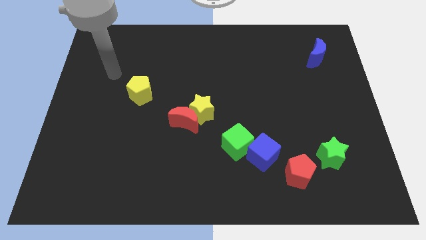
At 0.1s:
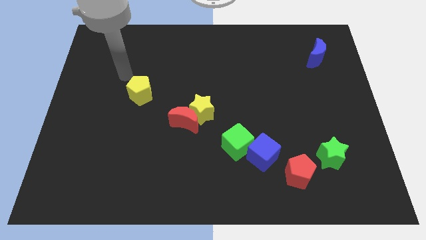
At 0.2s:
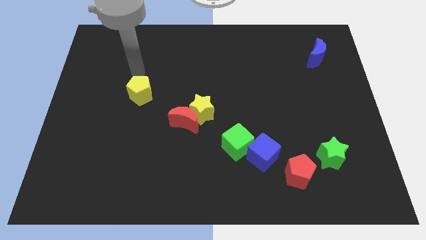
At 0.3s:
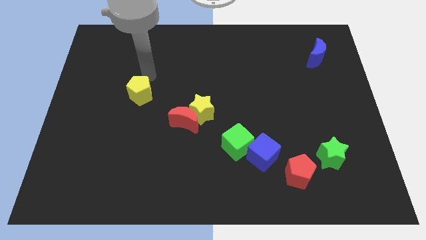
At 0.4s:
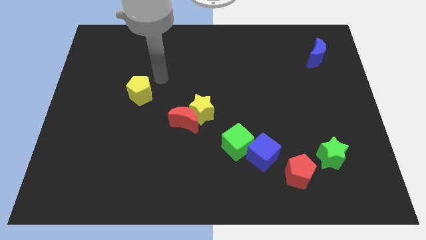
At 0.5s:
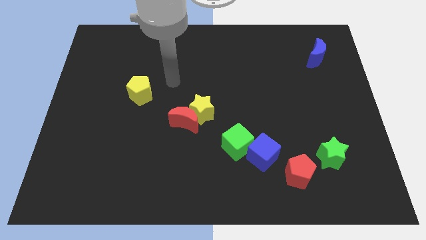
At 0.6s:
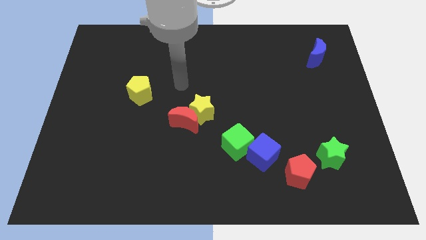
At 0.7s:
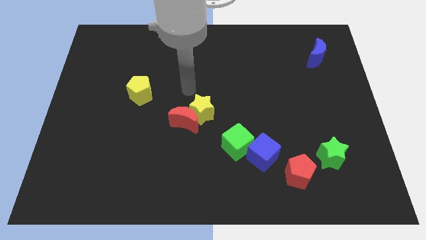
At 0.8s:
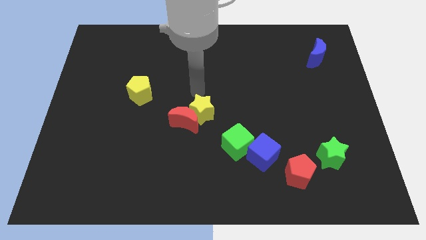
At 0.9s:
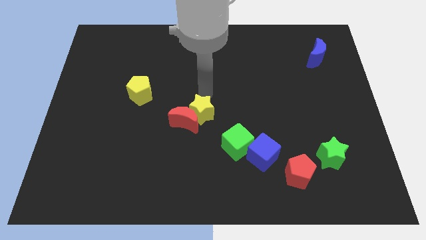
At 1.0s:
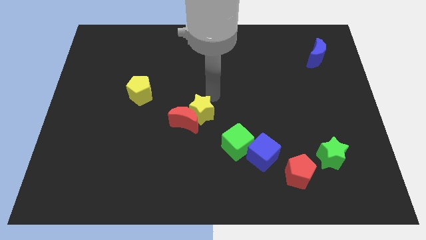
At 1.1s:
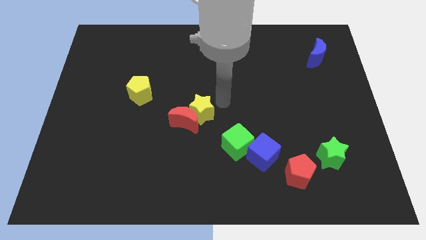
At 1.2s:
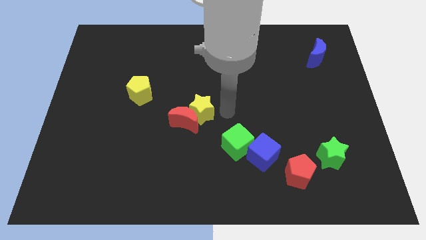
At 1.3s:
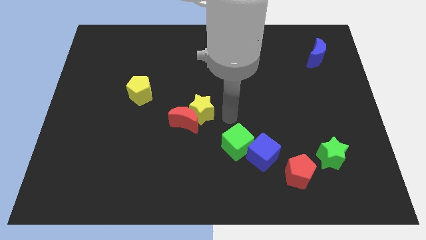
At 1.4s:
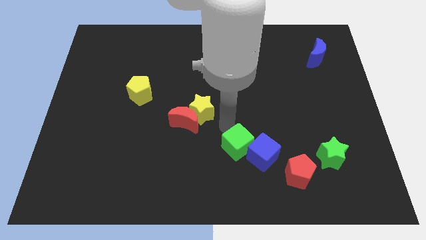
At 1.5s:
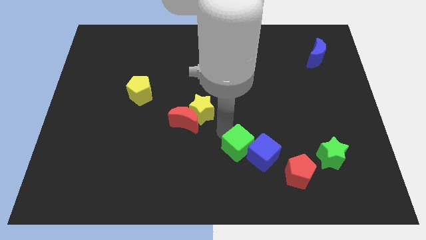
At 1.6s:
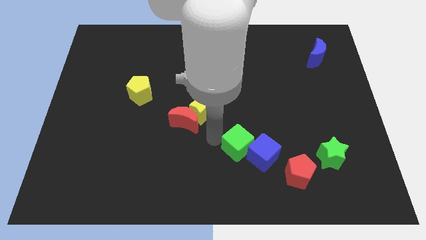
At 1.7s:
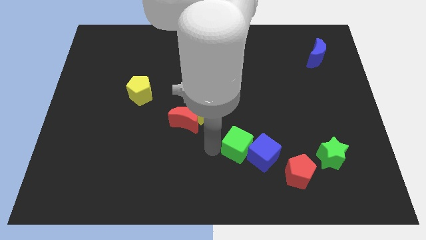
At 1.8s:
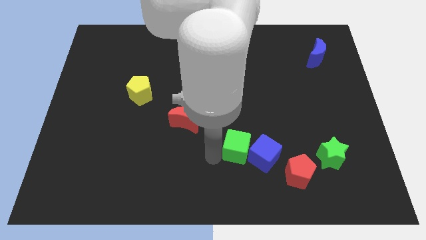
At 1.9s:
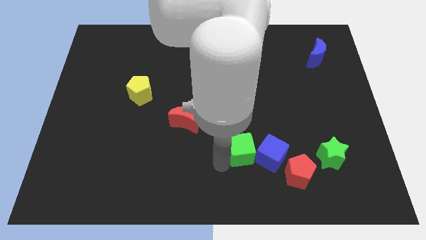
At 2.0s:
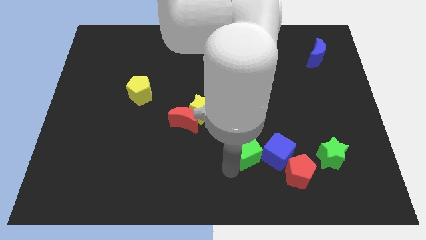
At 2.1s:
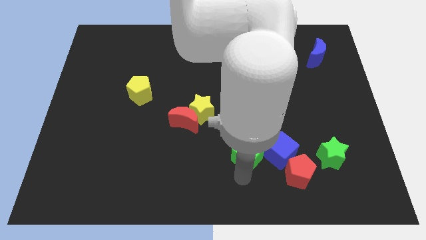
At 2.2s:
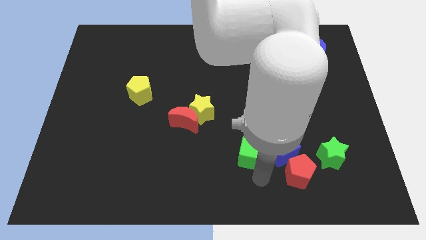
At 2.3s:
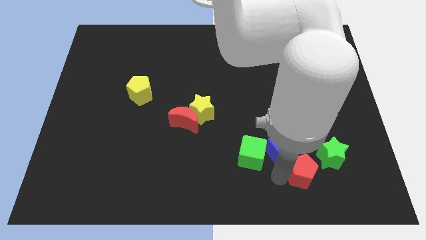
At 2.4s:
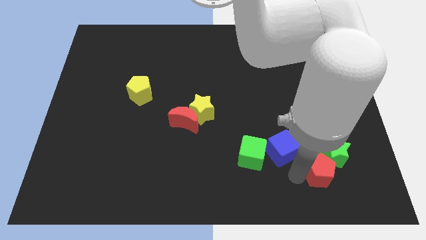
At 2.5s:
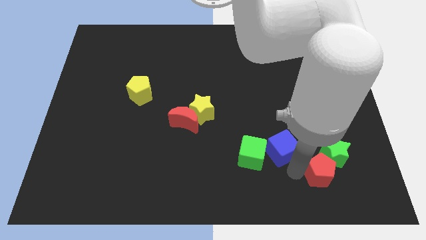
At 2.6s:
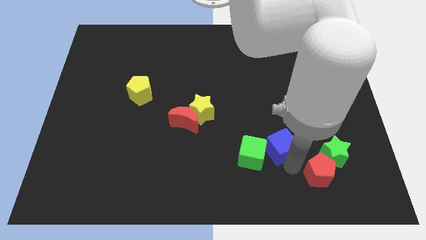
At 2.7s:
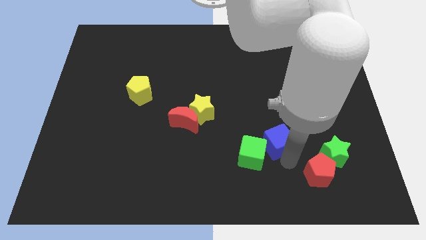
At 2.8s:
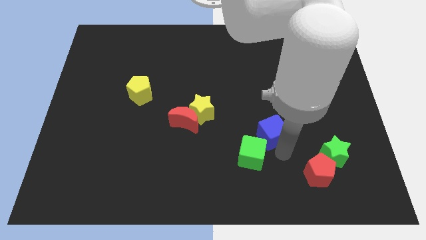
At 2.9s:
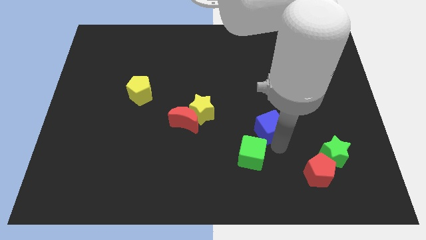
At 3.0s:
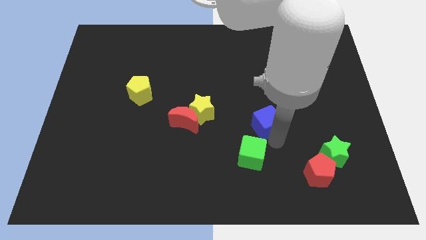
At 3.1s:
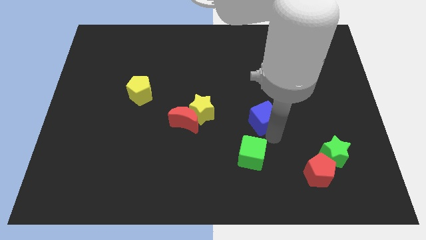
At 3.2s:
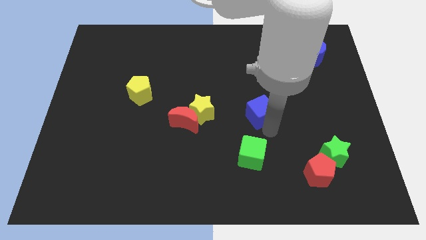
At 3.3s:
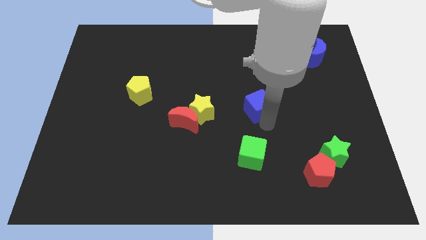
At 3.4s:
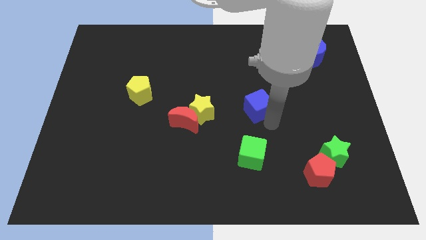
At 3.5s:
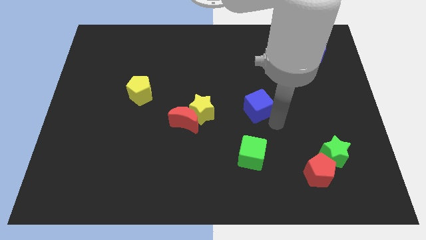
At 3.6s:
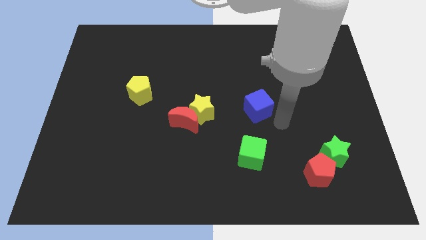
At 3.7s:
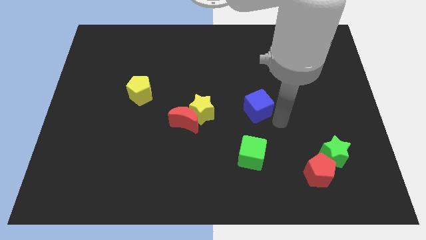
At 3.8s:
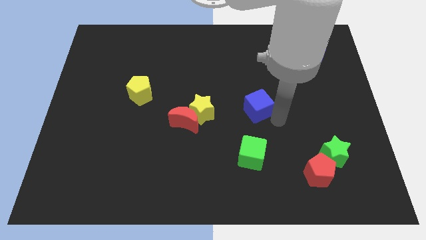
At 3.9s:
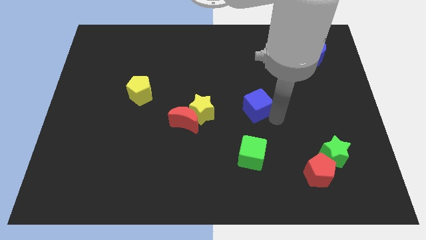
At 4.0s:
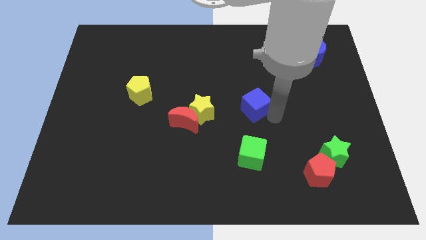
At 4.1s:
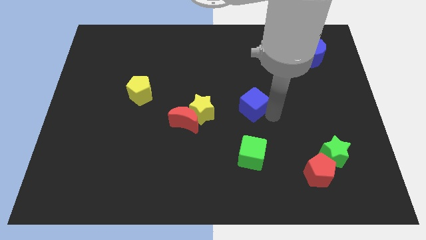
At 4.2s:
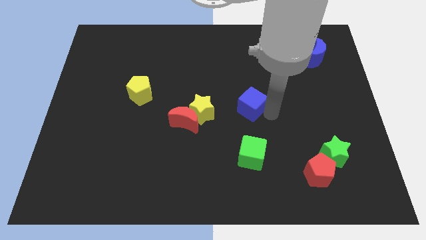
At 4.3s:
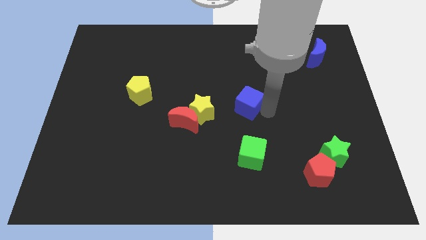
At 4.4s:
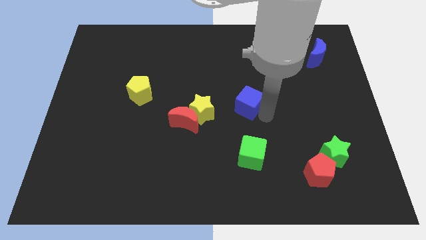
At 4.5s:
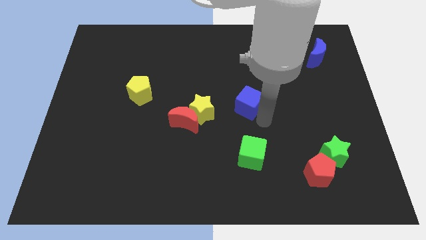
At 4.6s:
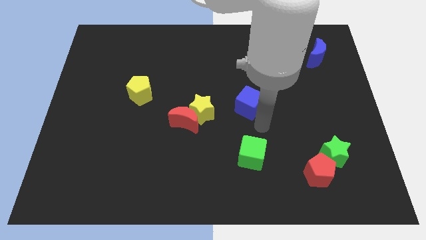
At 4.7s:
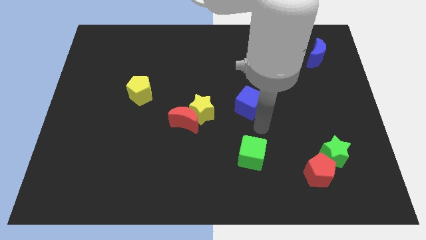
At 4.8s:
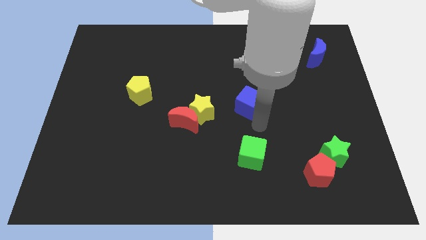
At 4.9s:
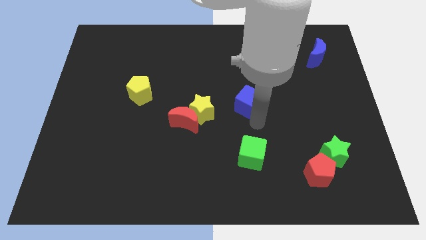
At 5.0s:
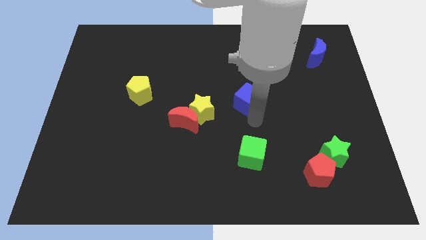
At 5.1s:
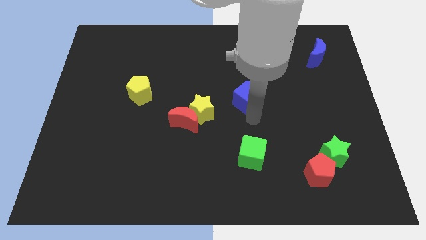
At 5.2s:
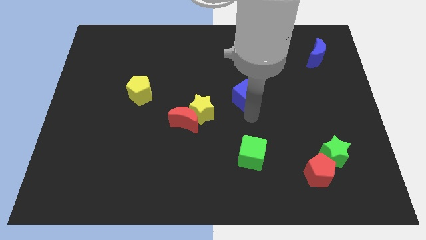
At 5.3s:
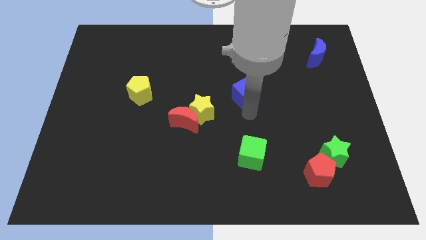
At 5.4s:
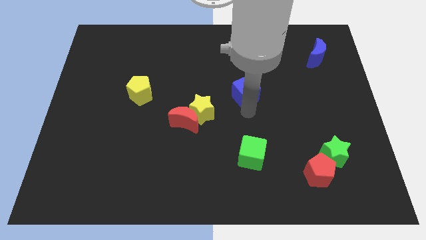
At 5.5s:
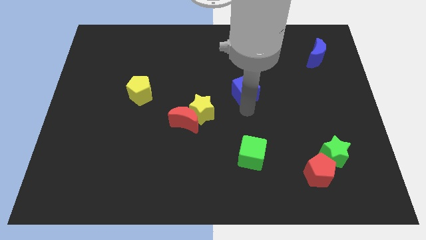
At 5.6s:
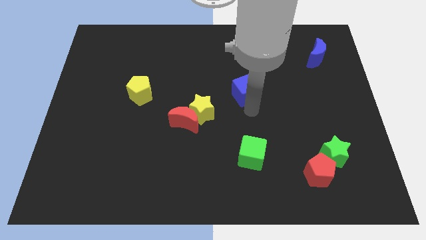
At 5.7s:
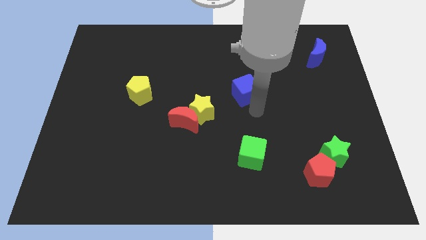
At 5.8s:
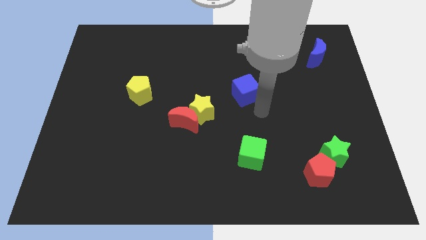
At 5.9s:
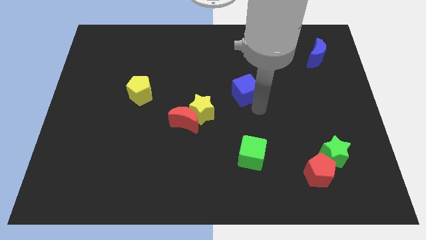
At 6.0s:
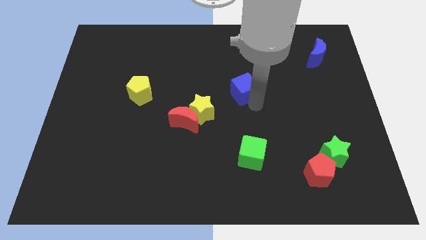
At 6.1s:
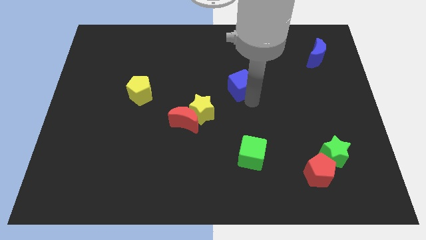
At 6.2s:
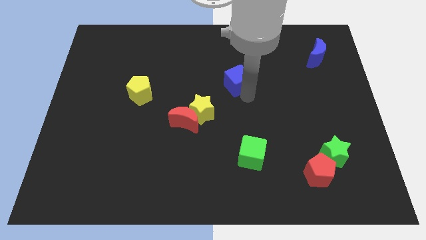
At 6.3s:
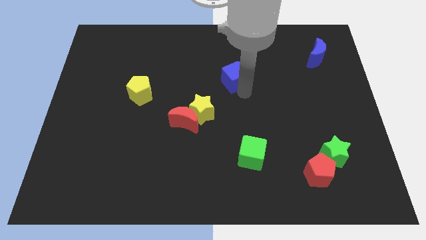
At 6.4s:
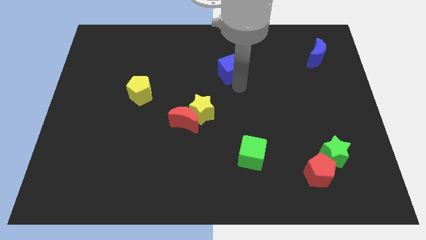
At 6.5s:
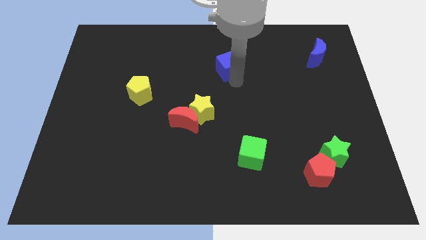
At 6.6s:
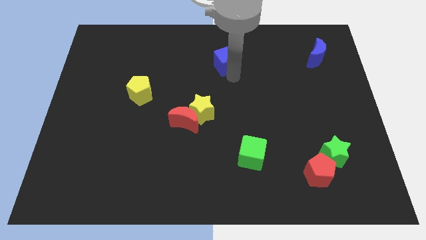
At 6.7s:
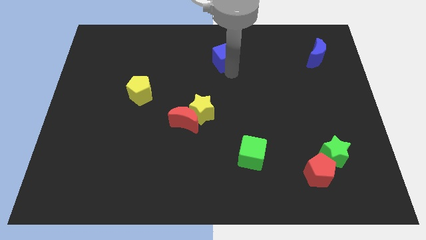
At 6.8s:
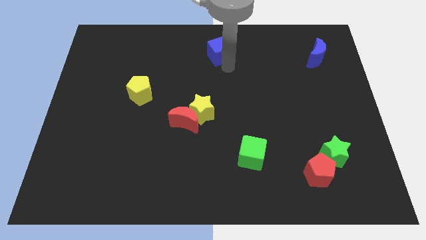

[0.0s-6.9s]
push the blue cube to the top
